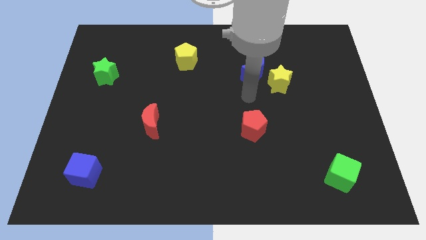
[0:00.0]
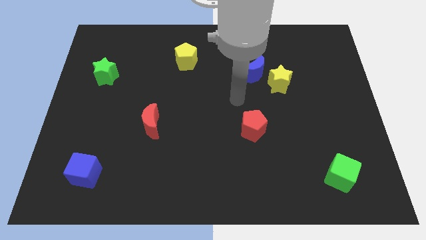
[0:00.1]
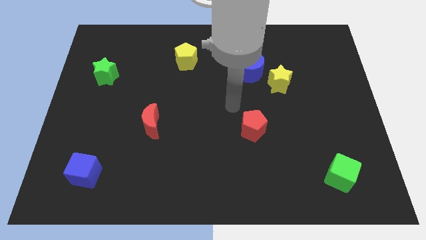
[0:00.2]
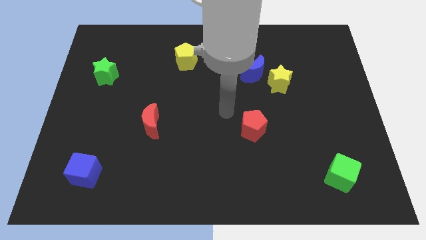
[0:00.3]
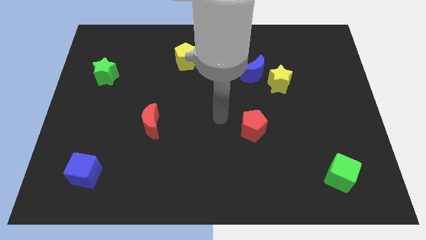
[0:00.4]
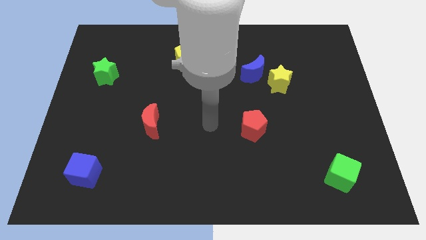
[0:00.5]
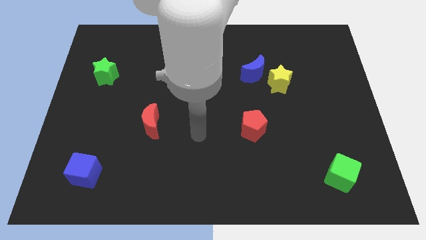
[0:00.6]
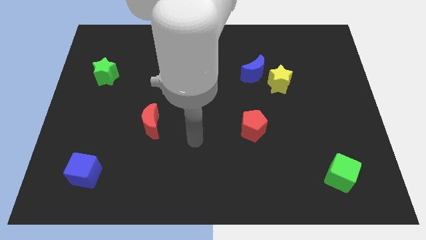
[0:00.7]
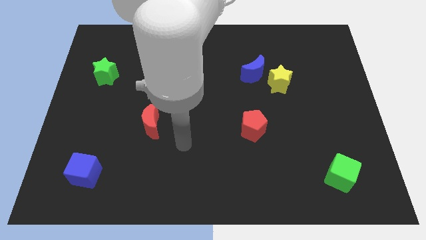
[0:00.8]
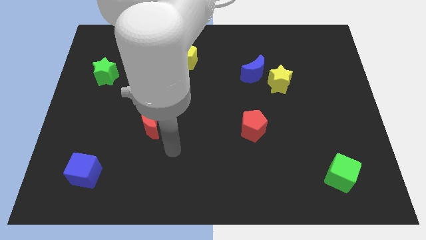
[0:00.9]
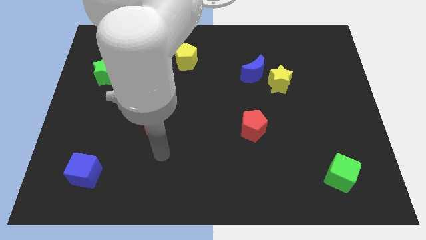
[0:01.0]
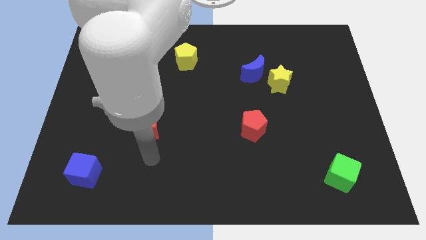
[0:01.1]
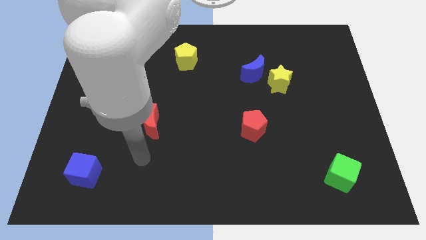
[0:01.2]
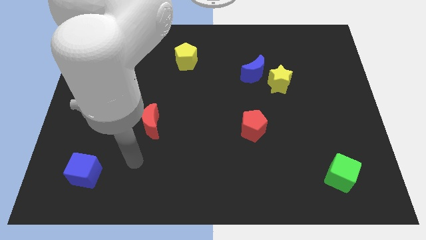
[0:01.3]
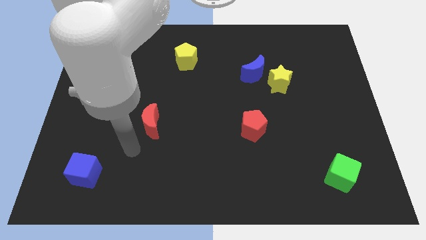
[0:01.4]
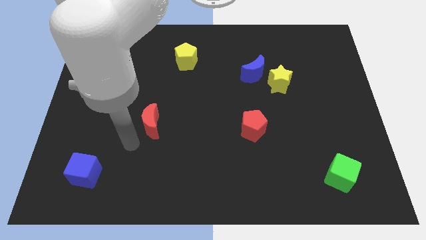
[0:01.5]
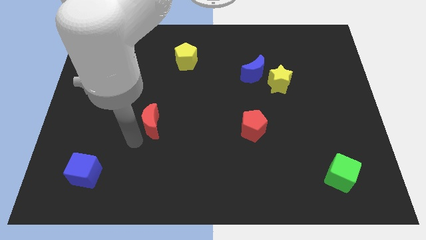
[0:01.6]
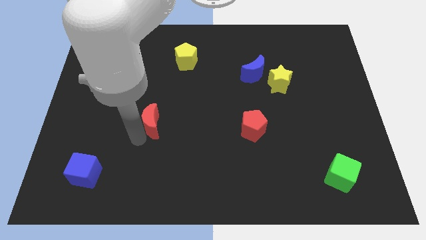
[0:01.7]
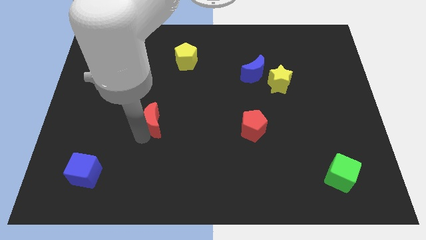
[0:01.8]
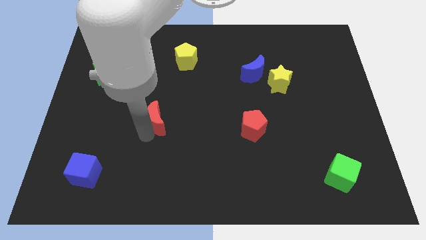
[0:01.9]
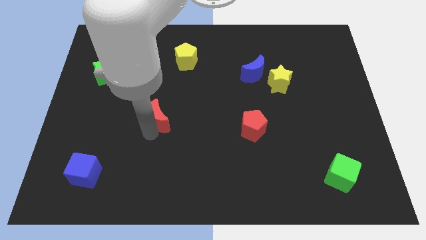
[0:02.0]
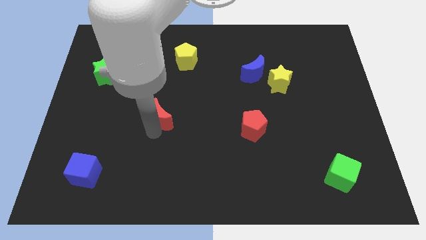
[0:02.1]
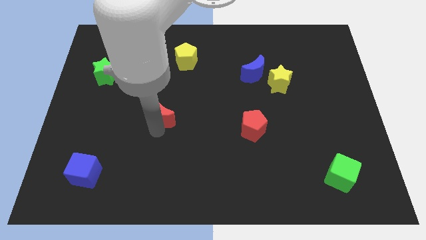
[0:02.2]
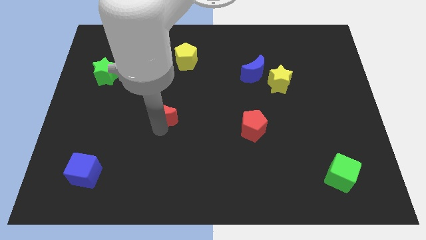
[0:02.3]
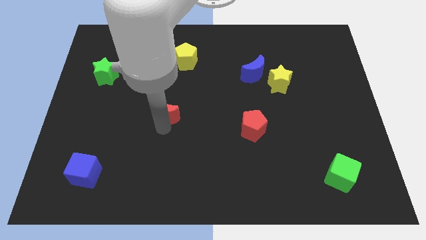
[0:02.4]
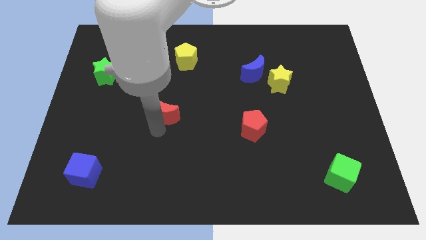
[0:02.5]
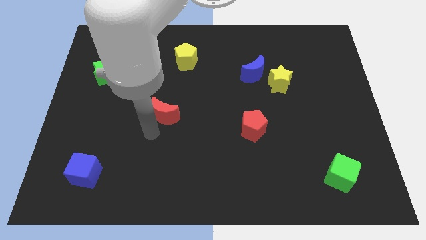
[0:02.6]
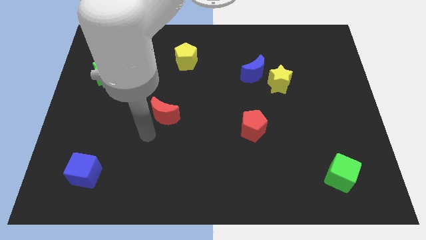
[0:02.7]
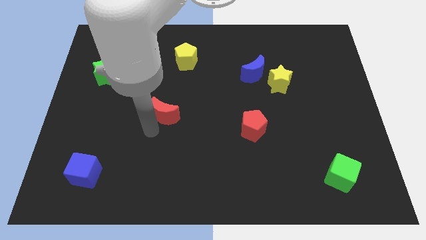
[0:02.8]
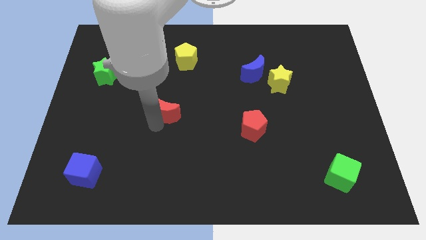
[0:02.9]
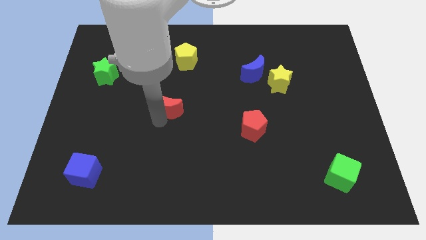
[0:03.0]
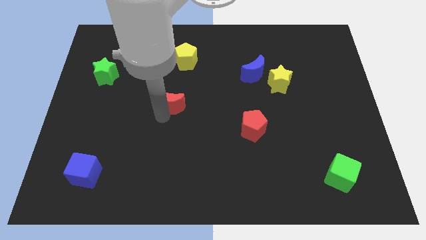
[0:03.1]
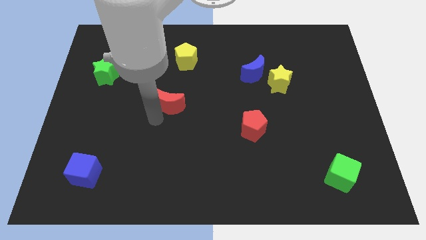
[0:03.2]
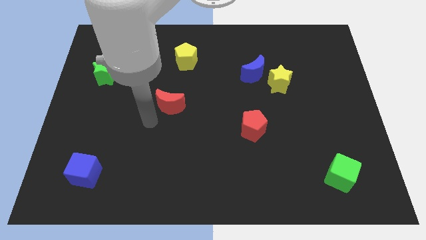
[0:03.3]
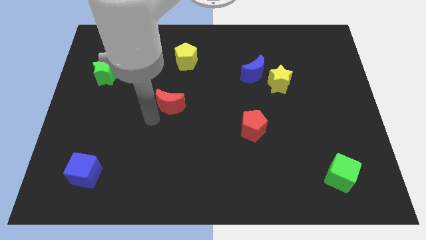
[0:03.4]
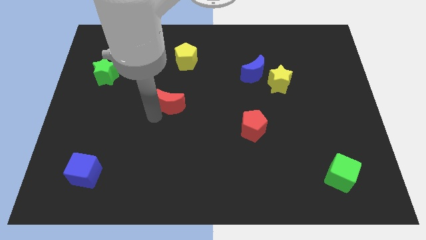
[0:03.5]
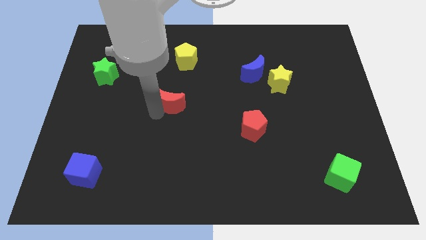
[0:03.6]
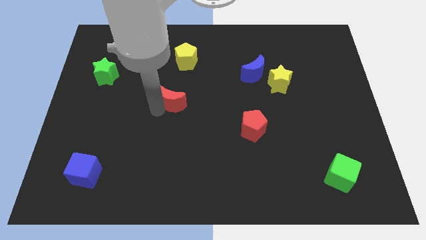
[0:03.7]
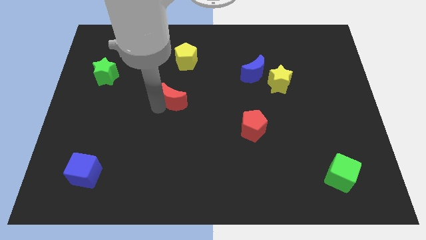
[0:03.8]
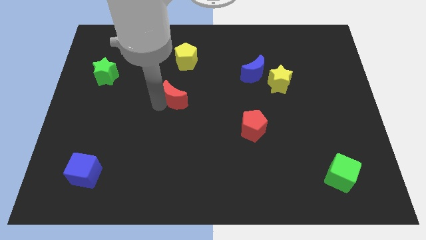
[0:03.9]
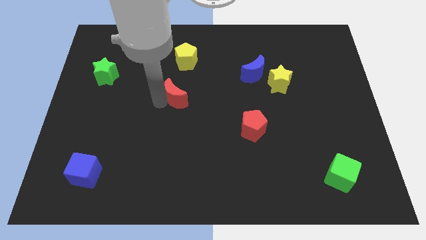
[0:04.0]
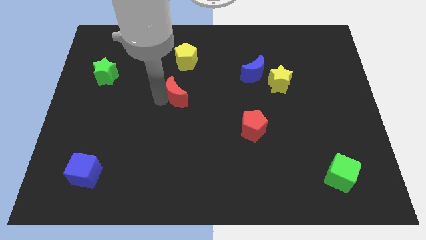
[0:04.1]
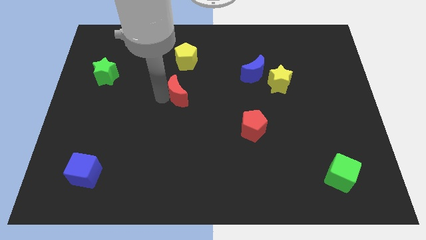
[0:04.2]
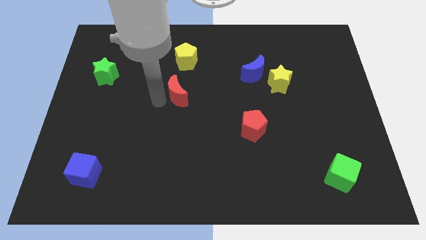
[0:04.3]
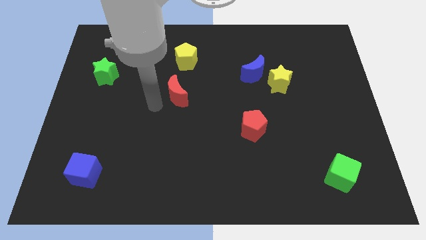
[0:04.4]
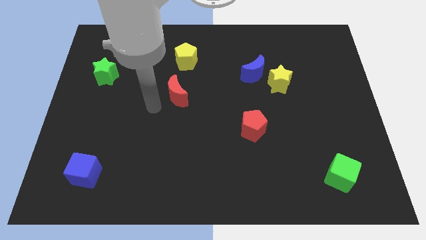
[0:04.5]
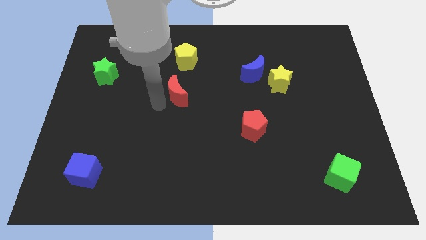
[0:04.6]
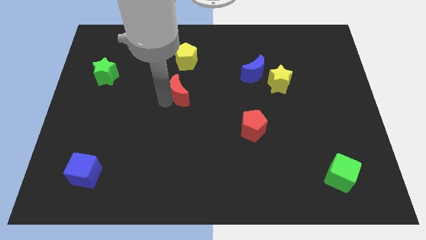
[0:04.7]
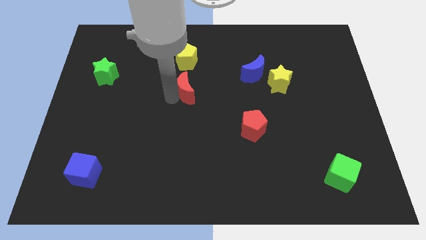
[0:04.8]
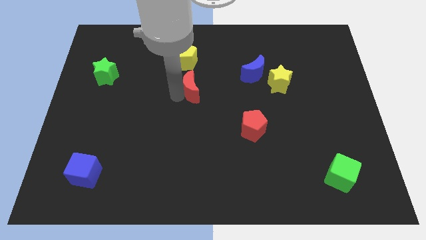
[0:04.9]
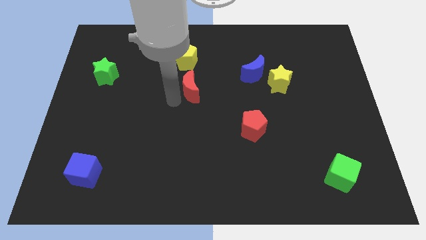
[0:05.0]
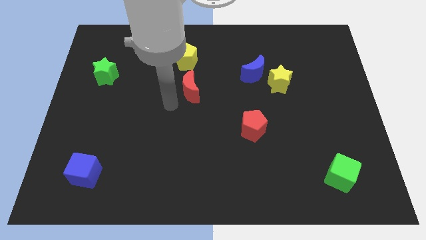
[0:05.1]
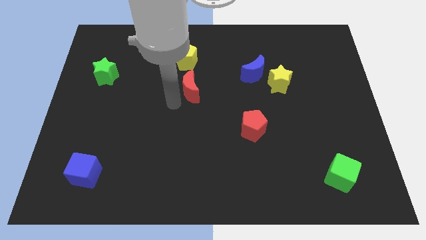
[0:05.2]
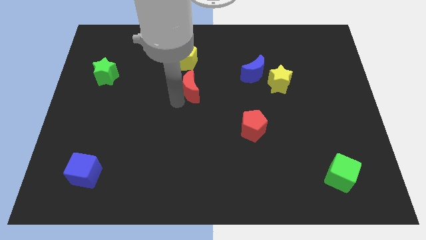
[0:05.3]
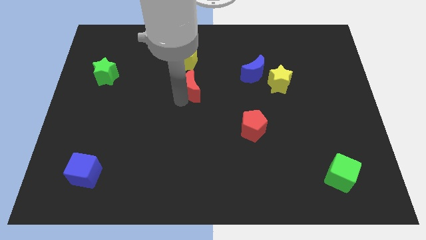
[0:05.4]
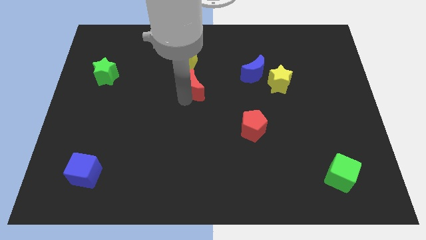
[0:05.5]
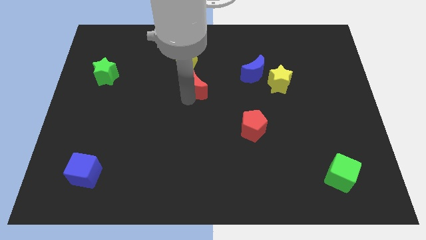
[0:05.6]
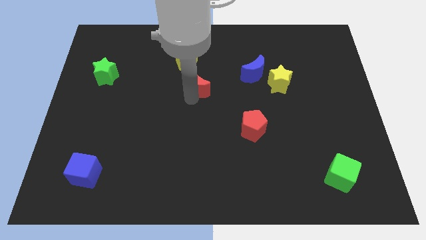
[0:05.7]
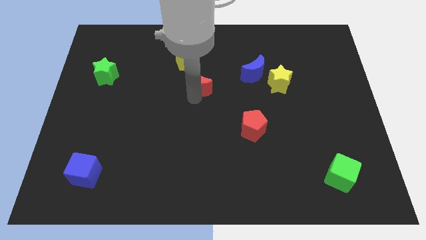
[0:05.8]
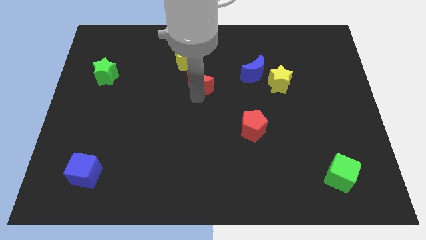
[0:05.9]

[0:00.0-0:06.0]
put the red moon left of the blue moon

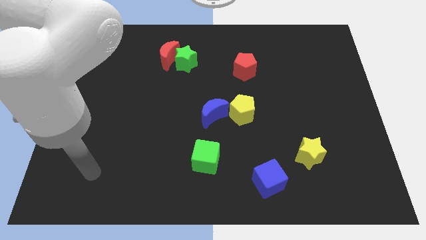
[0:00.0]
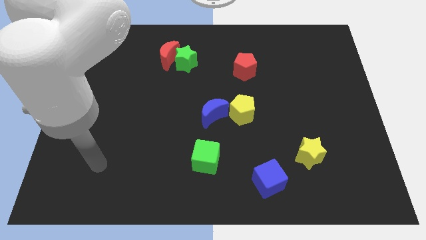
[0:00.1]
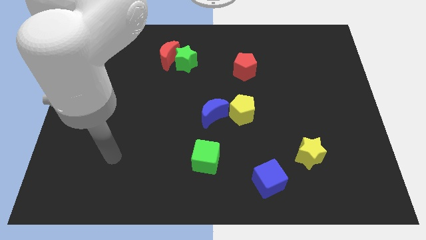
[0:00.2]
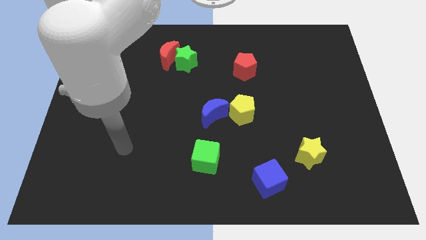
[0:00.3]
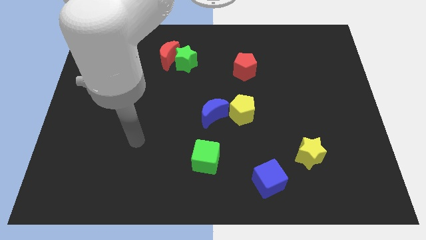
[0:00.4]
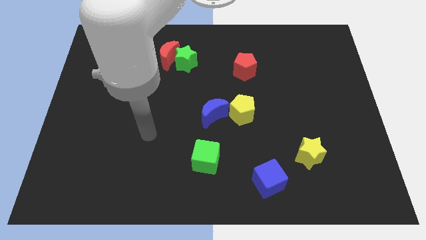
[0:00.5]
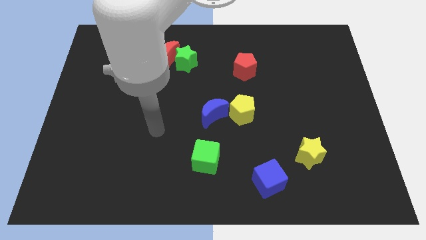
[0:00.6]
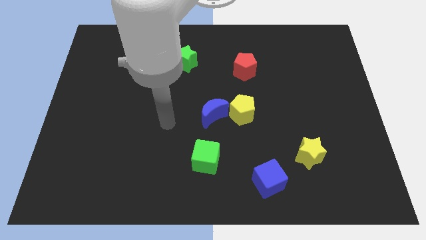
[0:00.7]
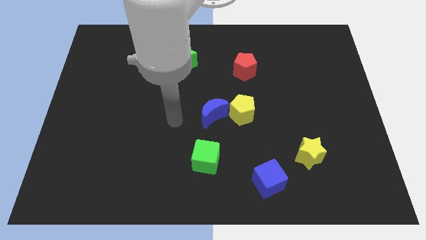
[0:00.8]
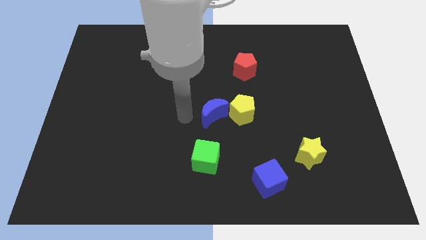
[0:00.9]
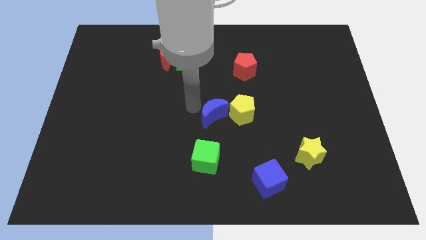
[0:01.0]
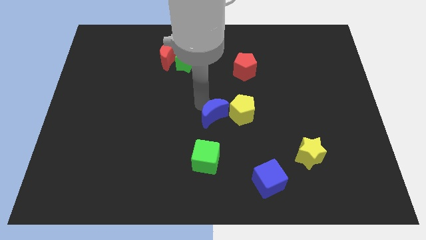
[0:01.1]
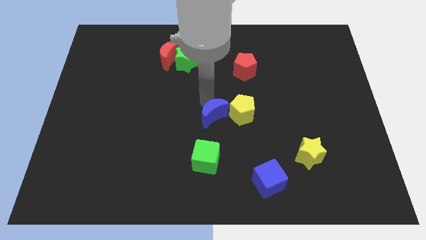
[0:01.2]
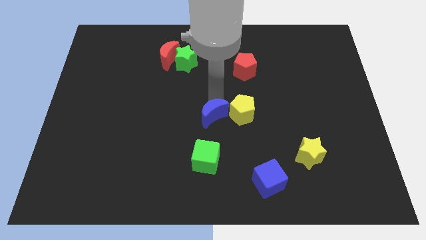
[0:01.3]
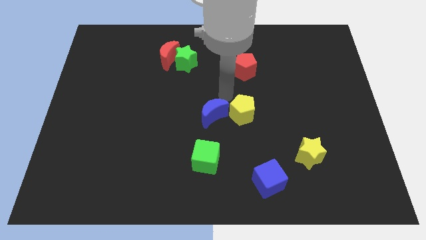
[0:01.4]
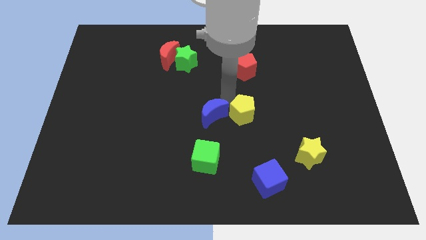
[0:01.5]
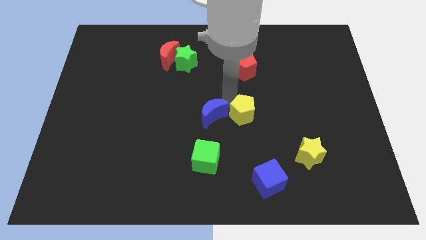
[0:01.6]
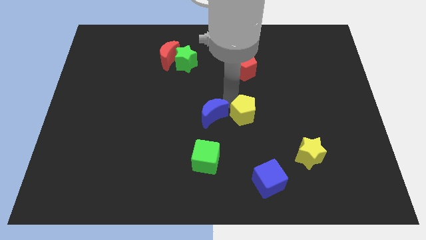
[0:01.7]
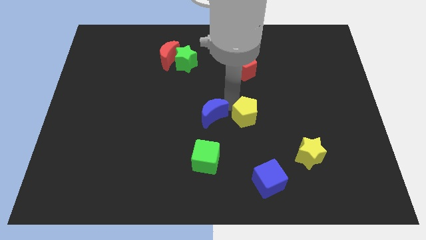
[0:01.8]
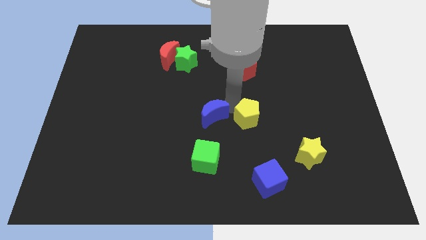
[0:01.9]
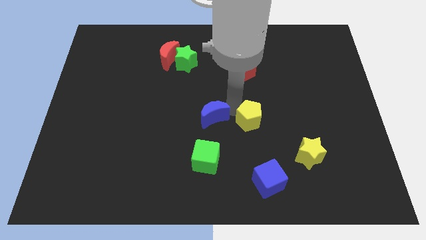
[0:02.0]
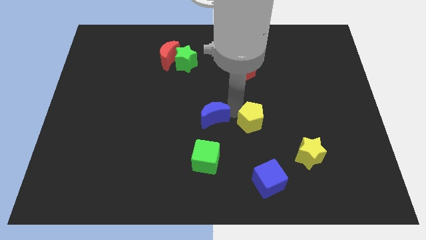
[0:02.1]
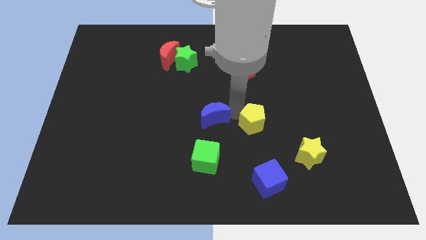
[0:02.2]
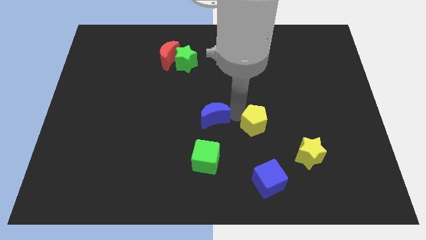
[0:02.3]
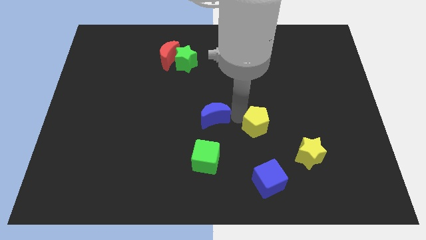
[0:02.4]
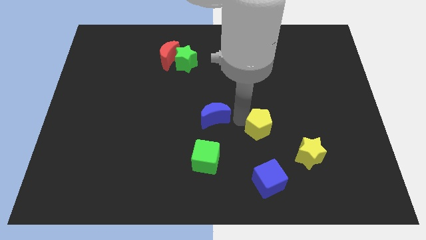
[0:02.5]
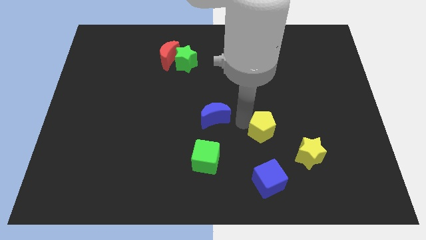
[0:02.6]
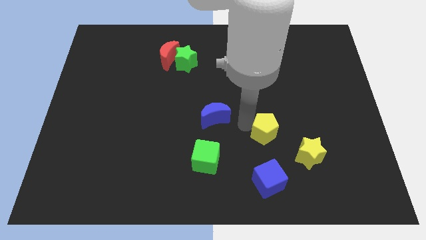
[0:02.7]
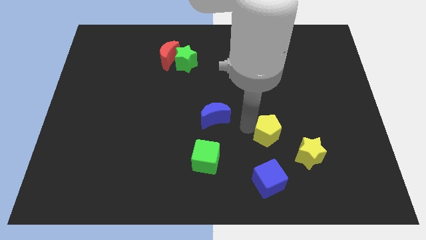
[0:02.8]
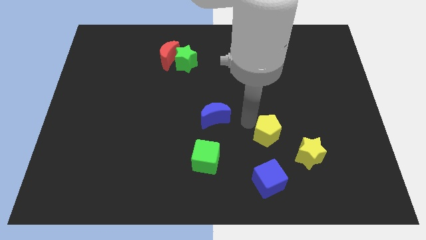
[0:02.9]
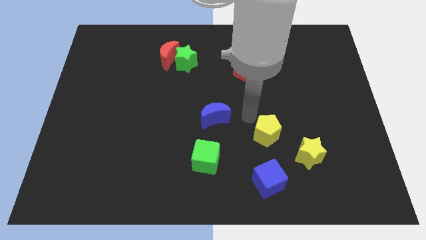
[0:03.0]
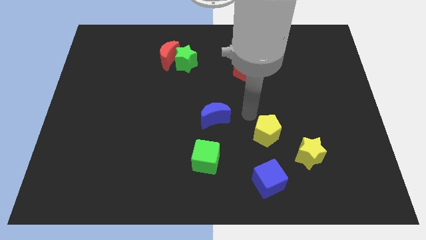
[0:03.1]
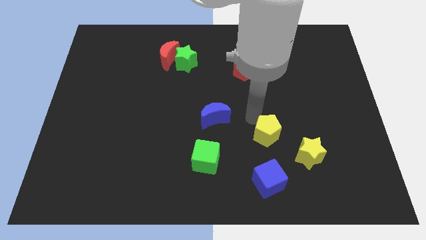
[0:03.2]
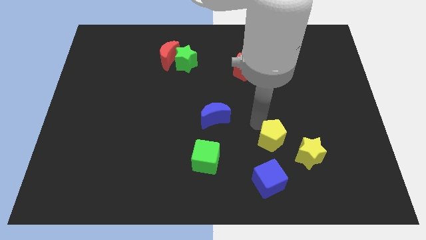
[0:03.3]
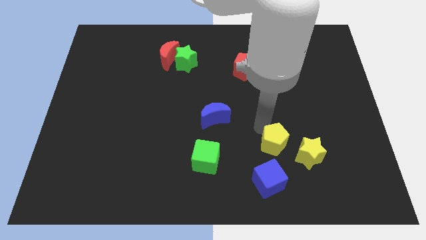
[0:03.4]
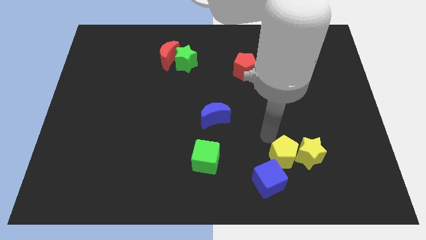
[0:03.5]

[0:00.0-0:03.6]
move the yellow pentagon to the bottom left of the yellow star
